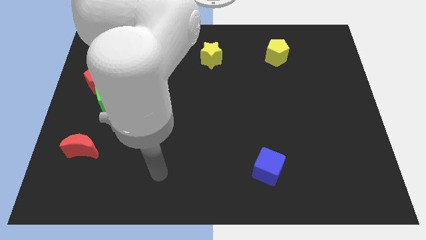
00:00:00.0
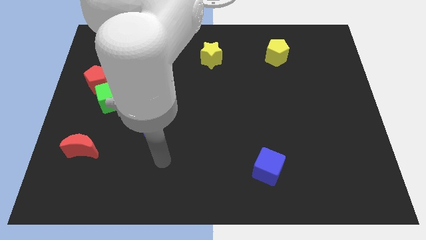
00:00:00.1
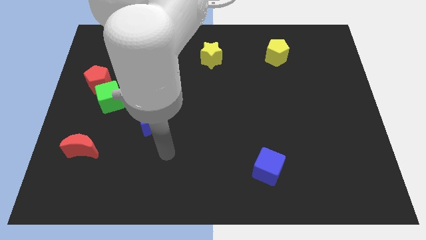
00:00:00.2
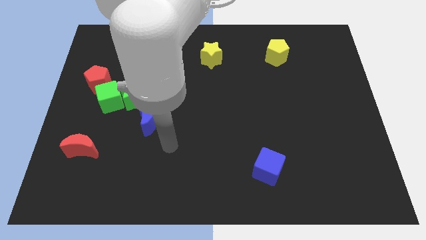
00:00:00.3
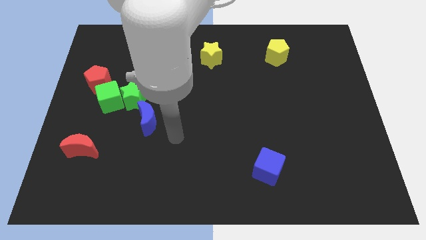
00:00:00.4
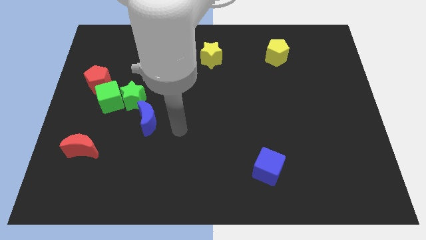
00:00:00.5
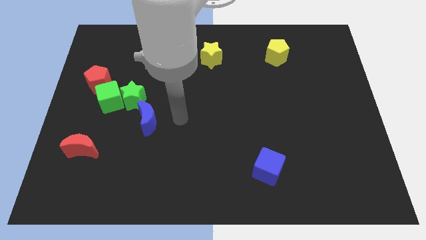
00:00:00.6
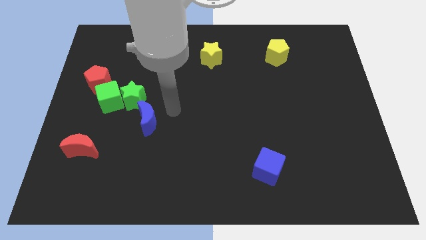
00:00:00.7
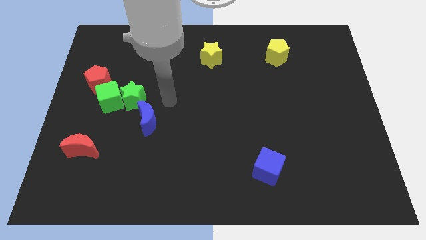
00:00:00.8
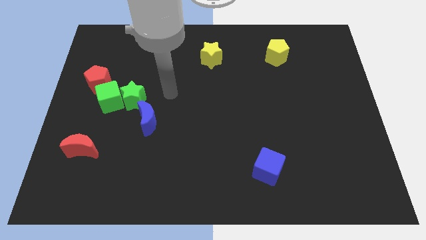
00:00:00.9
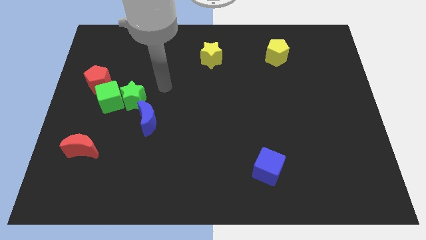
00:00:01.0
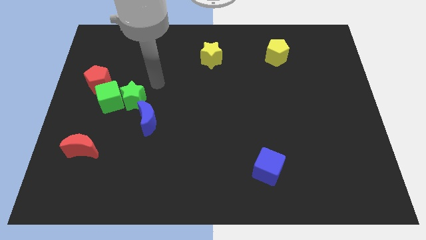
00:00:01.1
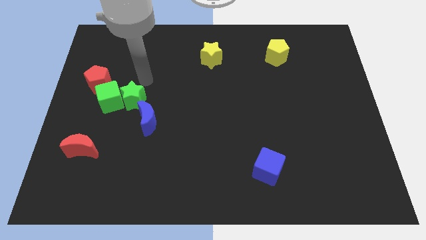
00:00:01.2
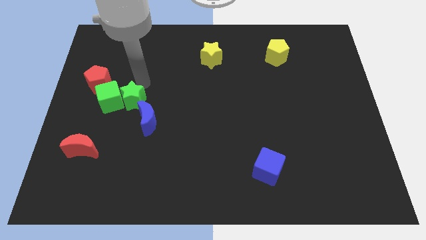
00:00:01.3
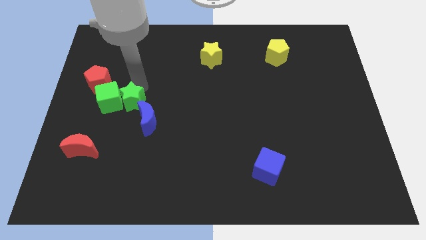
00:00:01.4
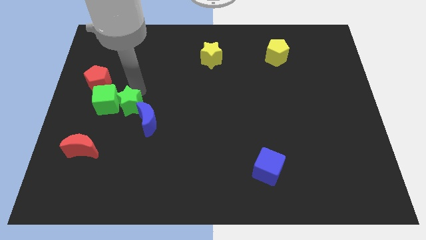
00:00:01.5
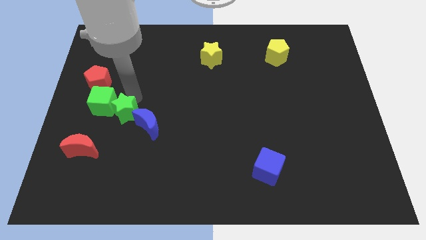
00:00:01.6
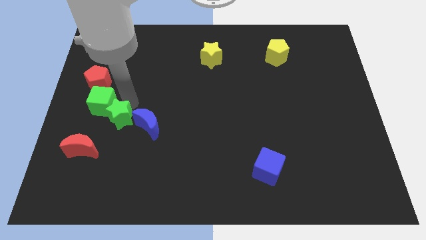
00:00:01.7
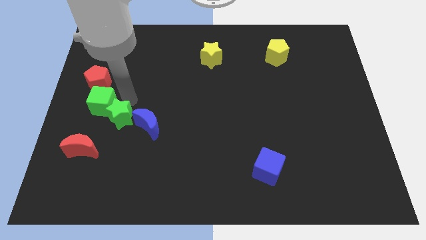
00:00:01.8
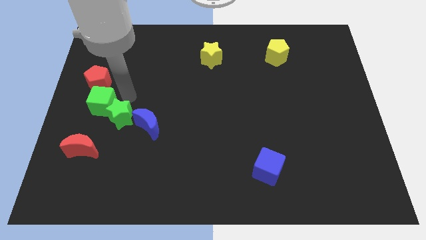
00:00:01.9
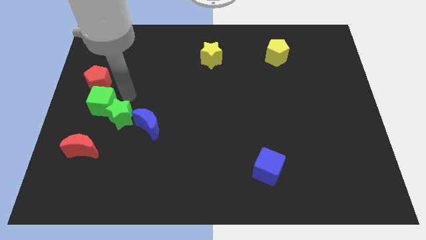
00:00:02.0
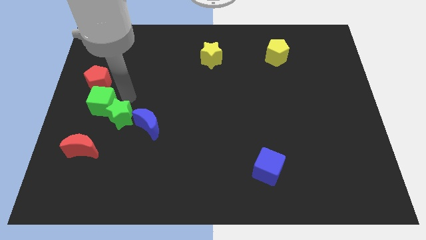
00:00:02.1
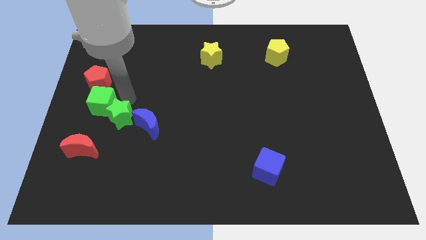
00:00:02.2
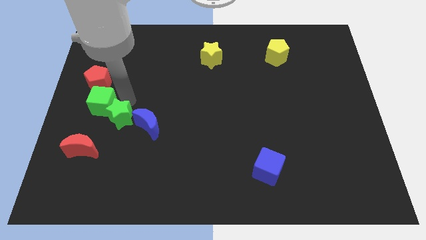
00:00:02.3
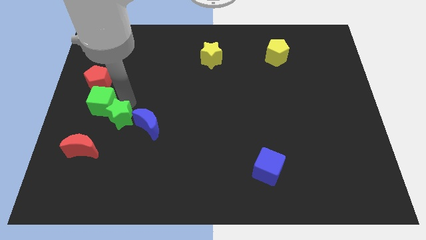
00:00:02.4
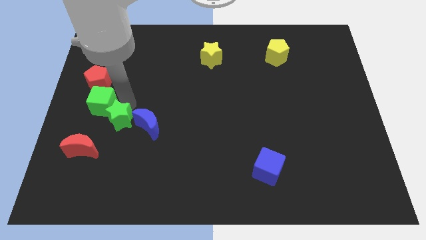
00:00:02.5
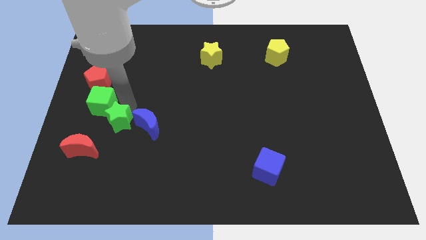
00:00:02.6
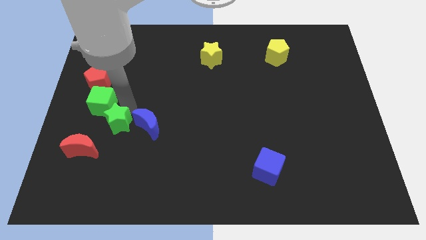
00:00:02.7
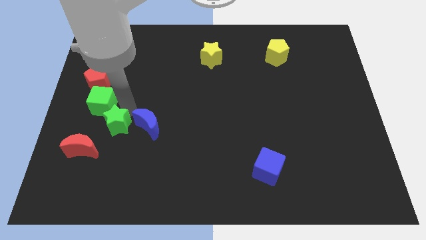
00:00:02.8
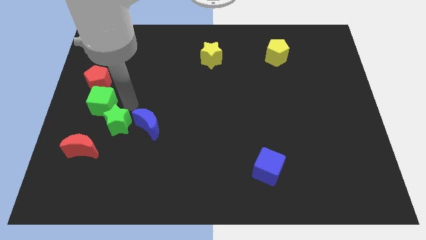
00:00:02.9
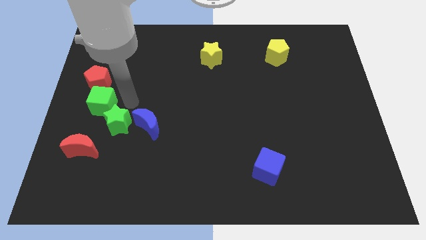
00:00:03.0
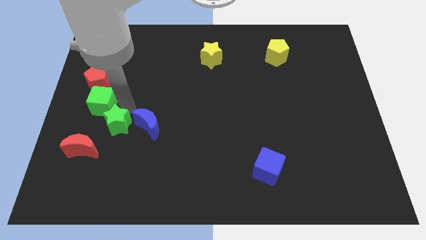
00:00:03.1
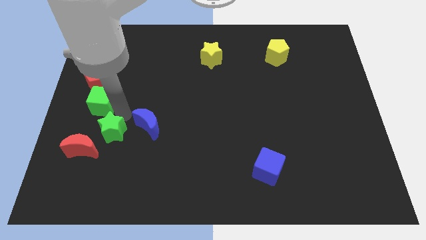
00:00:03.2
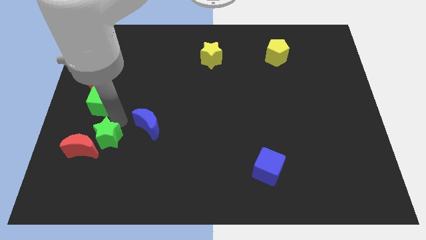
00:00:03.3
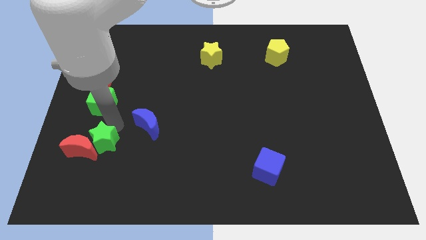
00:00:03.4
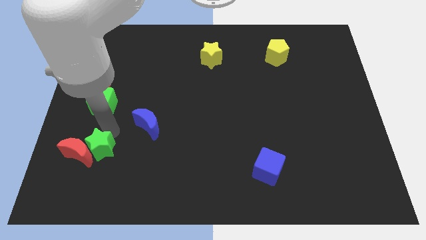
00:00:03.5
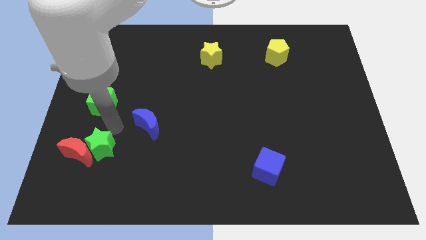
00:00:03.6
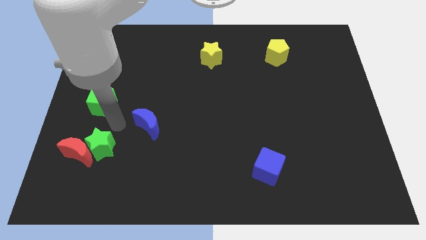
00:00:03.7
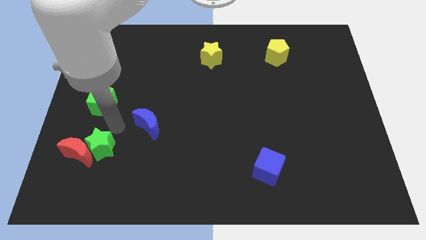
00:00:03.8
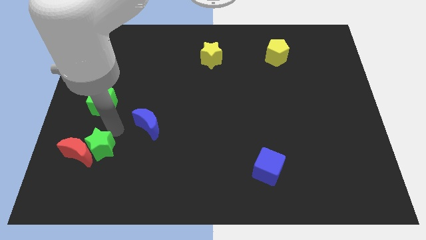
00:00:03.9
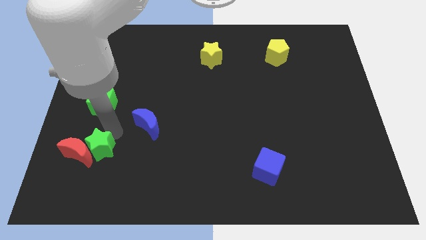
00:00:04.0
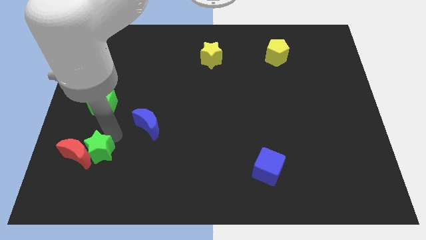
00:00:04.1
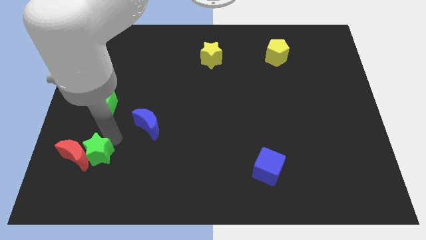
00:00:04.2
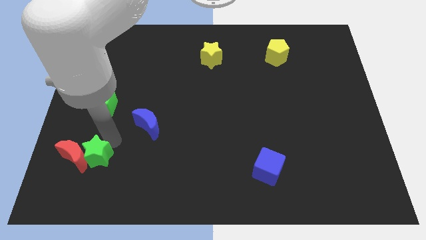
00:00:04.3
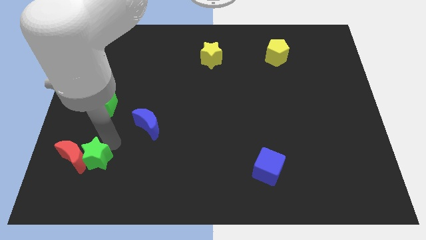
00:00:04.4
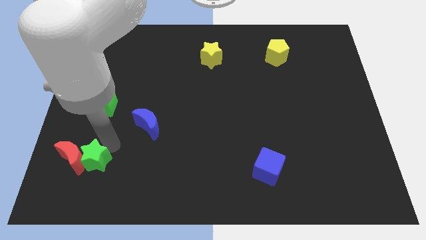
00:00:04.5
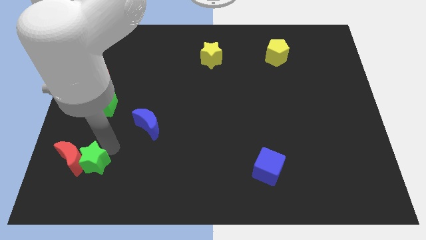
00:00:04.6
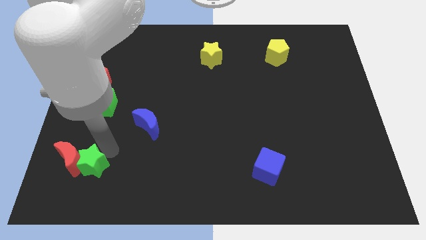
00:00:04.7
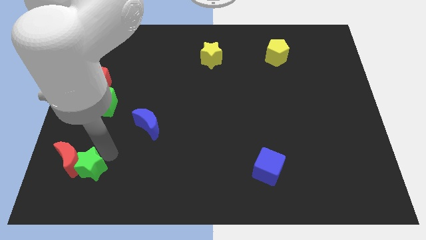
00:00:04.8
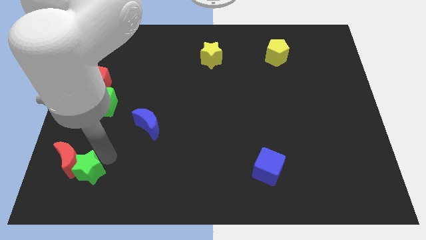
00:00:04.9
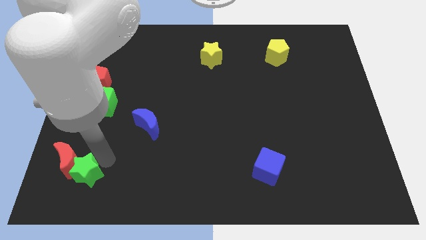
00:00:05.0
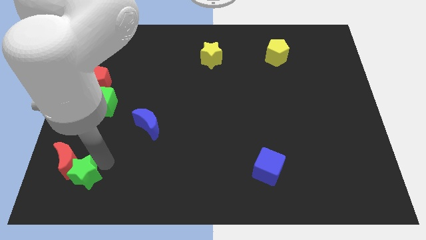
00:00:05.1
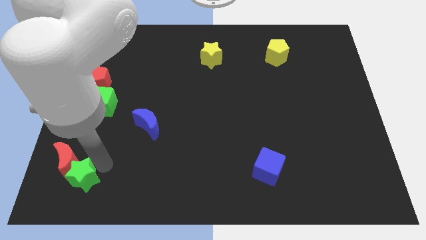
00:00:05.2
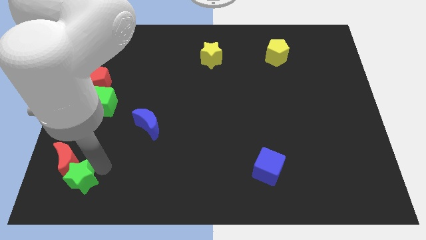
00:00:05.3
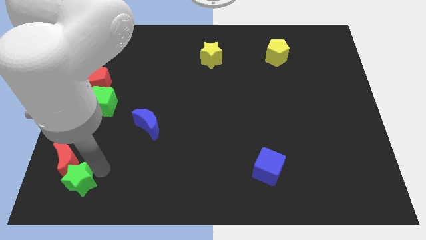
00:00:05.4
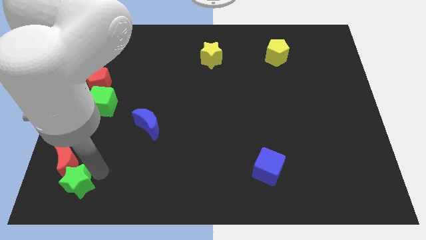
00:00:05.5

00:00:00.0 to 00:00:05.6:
move the green star to the bottom left of the board

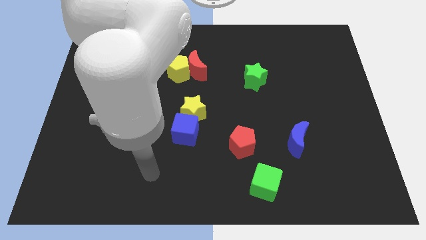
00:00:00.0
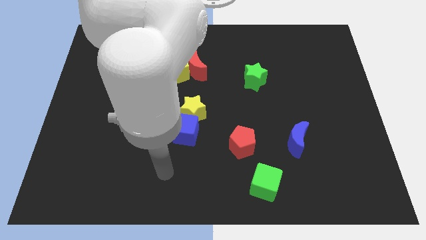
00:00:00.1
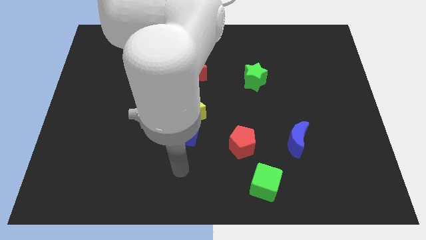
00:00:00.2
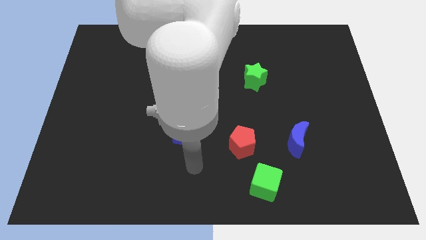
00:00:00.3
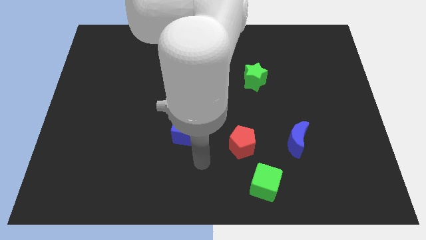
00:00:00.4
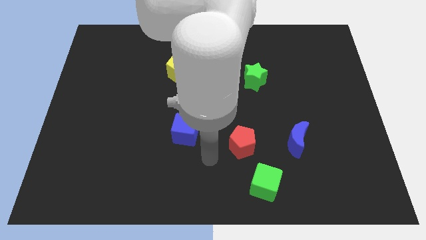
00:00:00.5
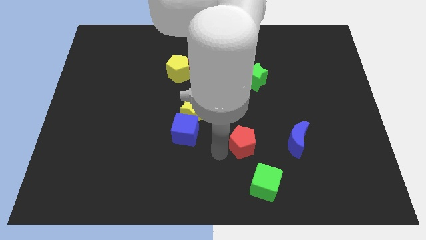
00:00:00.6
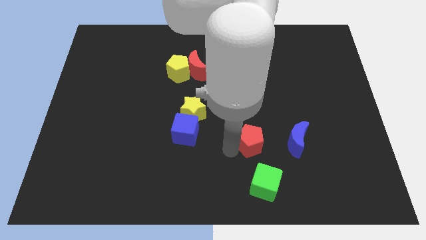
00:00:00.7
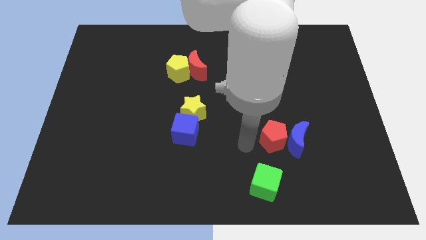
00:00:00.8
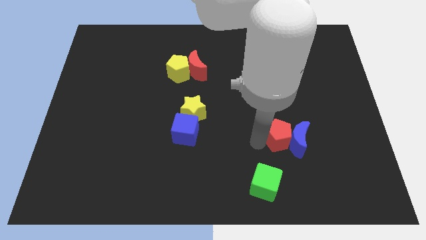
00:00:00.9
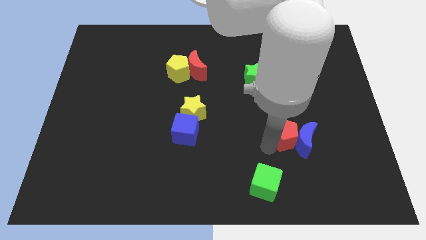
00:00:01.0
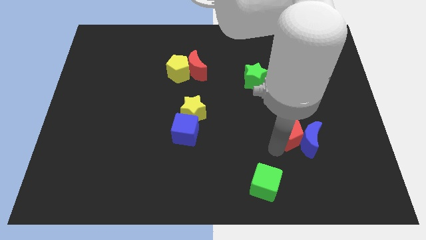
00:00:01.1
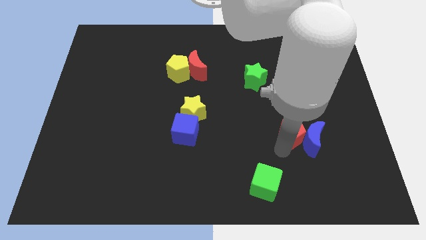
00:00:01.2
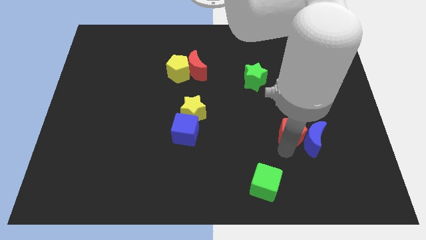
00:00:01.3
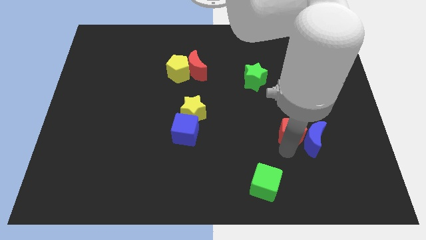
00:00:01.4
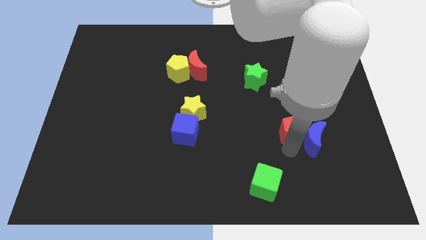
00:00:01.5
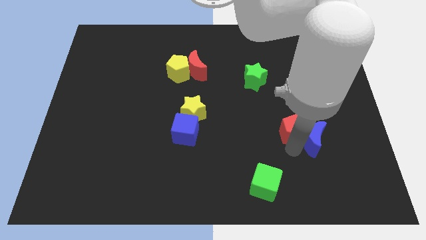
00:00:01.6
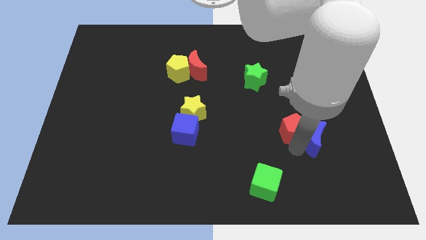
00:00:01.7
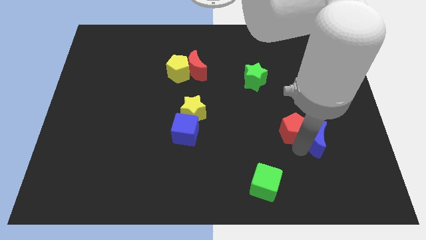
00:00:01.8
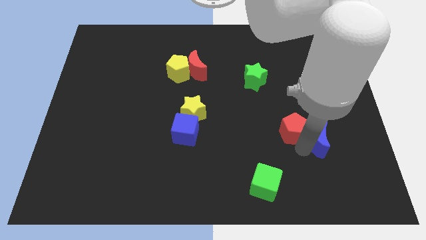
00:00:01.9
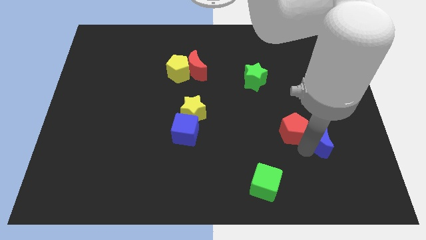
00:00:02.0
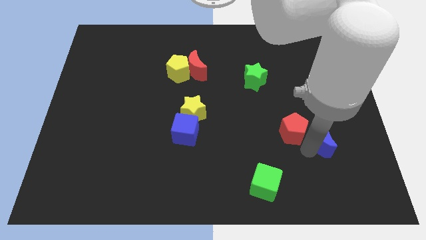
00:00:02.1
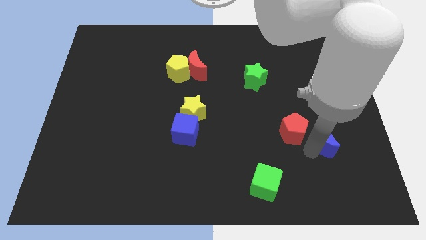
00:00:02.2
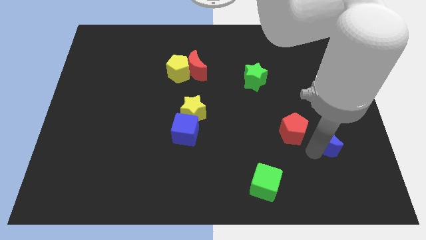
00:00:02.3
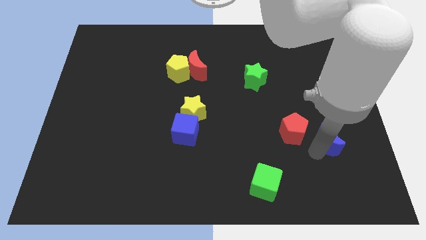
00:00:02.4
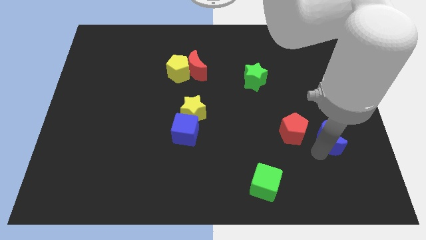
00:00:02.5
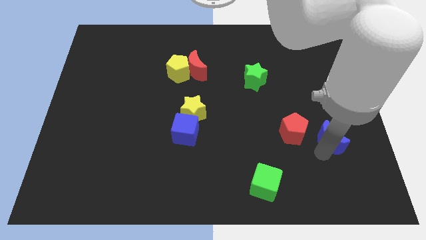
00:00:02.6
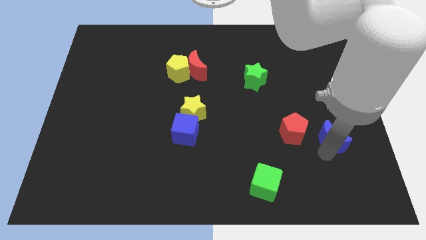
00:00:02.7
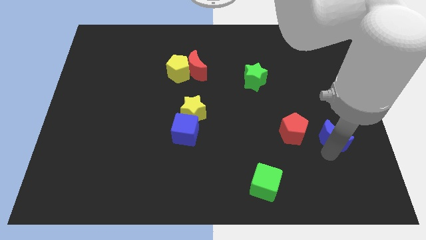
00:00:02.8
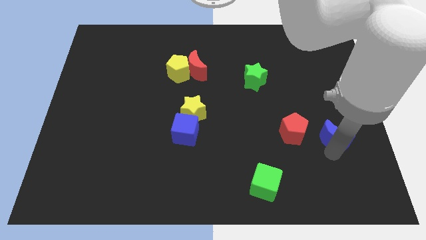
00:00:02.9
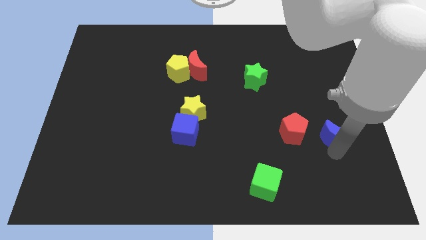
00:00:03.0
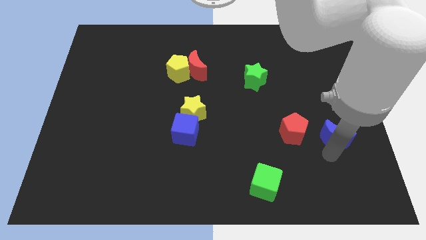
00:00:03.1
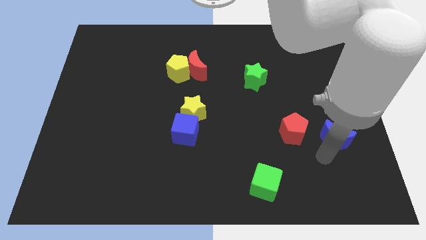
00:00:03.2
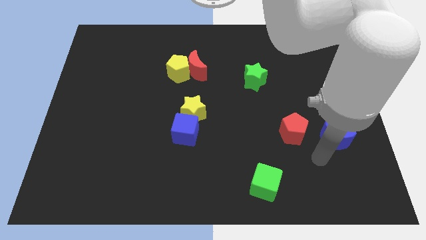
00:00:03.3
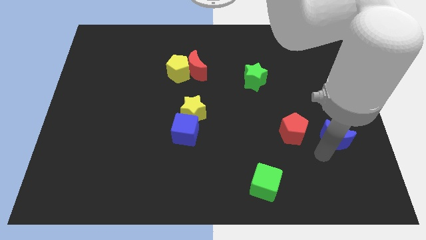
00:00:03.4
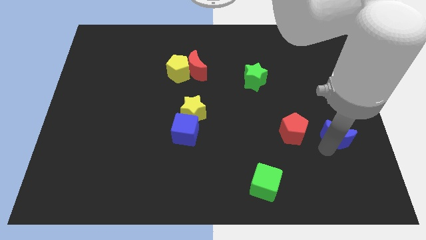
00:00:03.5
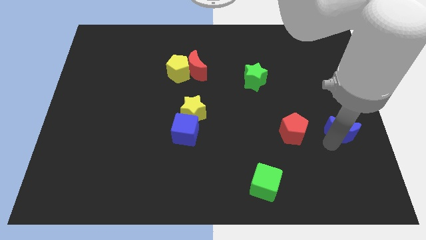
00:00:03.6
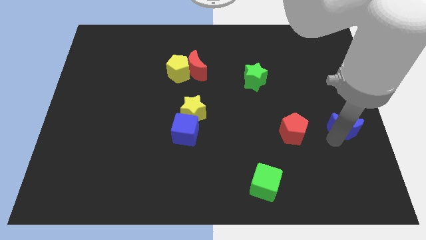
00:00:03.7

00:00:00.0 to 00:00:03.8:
push the blue moon to the right side of the board
